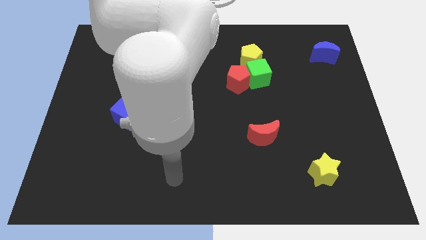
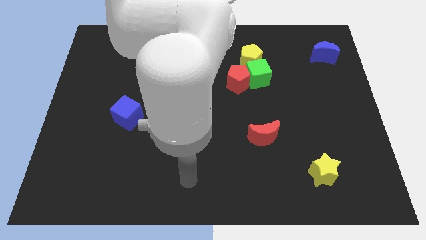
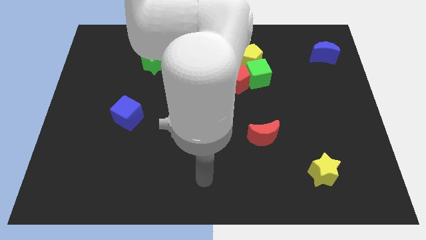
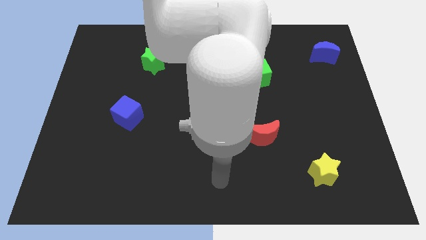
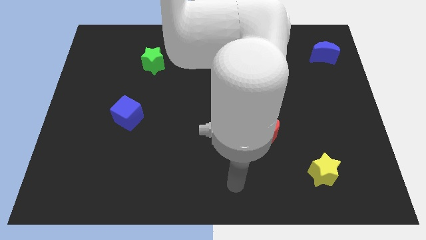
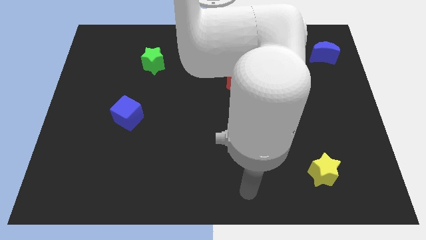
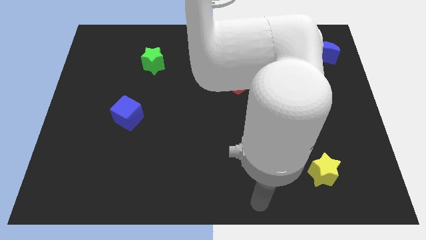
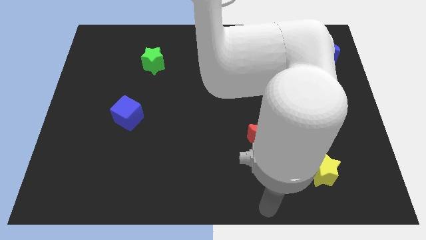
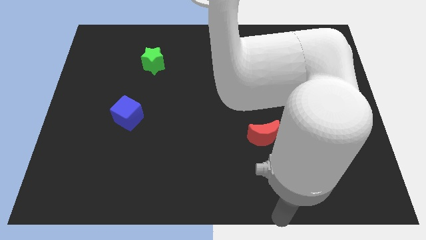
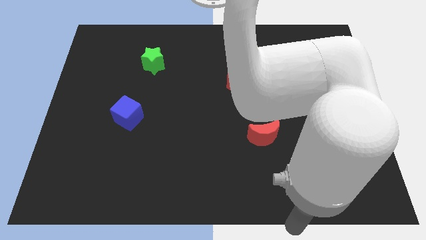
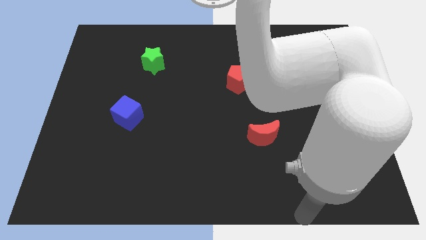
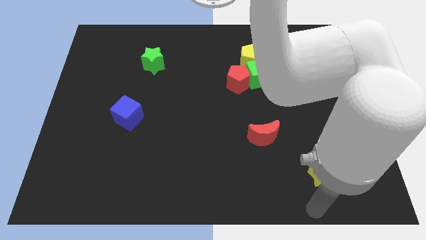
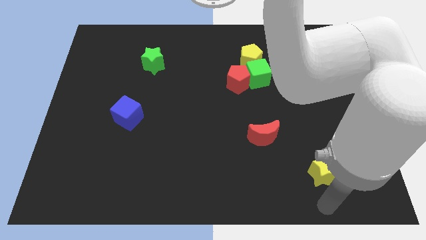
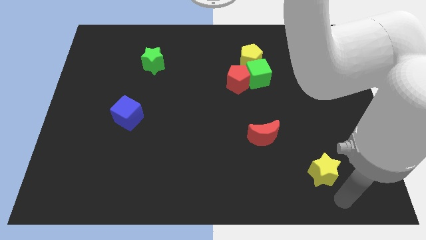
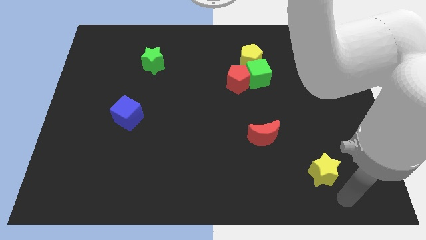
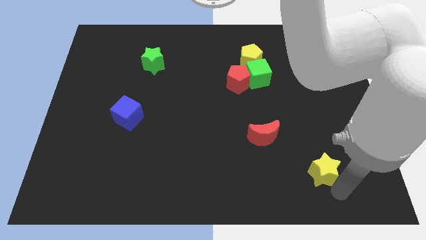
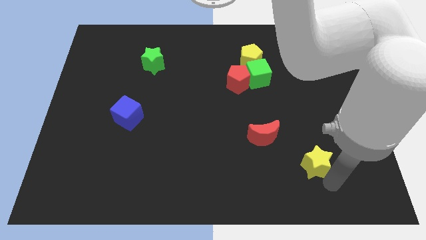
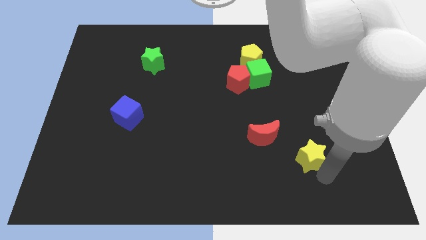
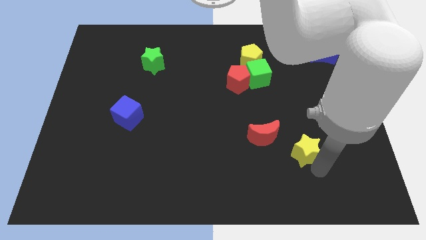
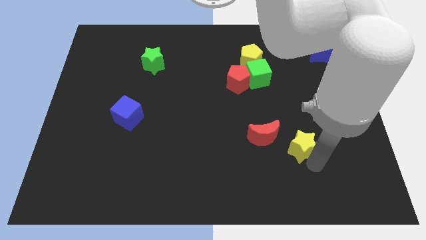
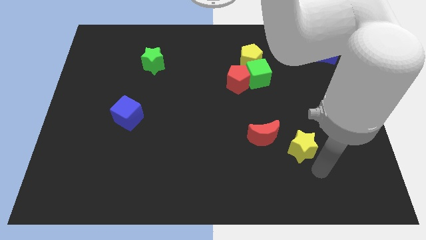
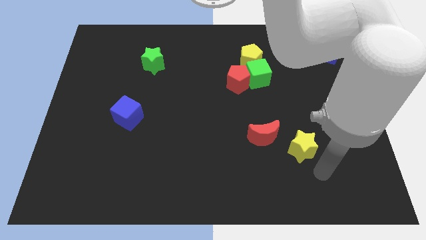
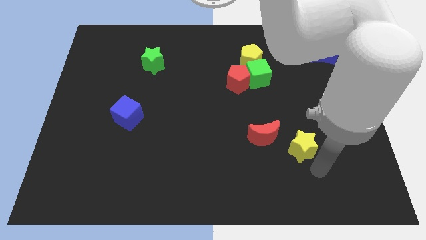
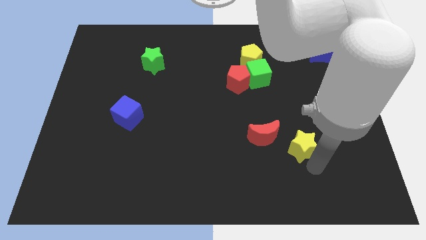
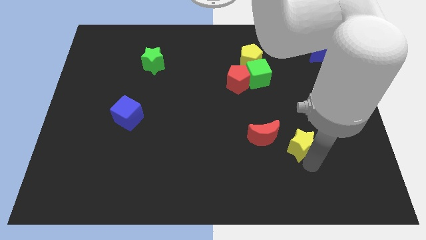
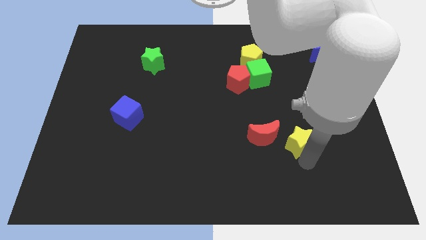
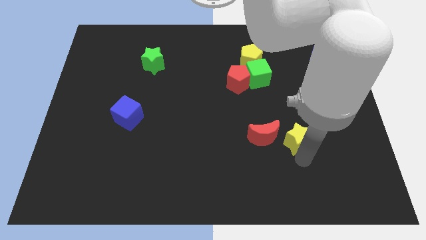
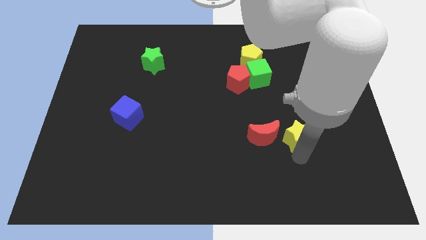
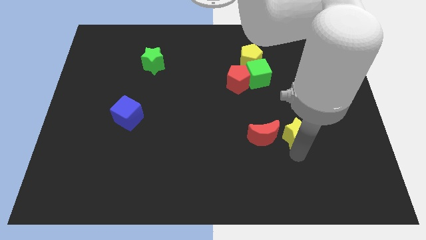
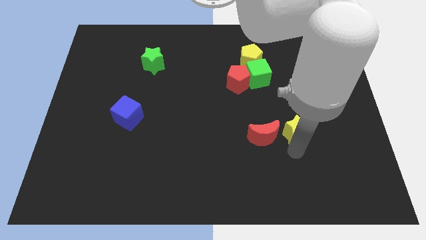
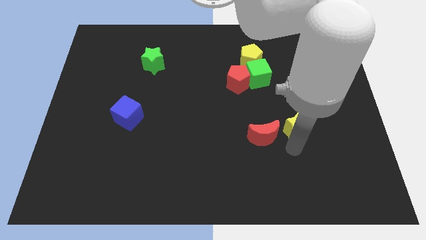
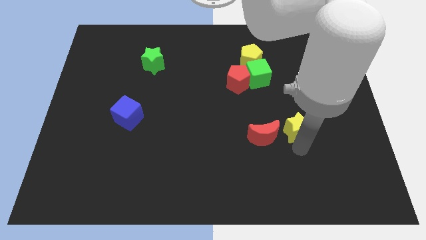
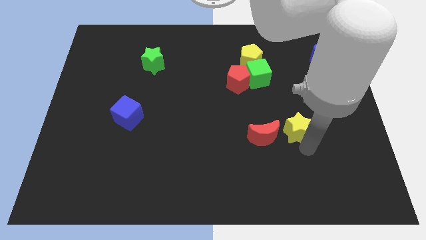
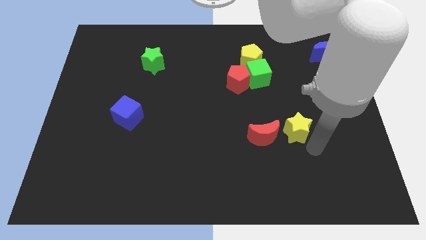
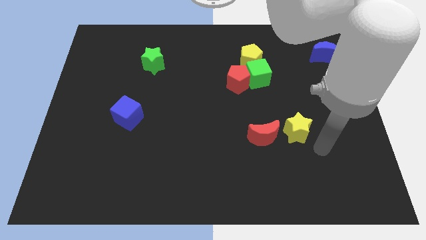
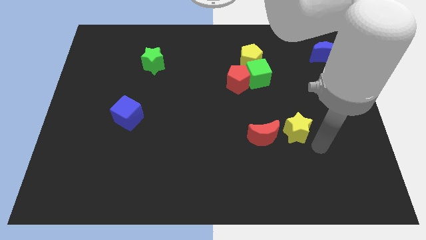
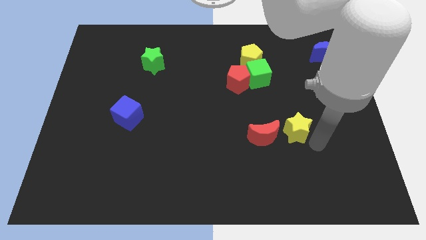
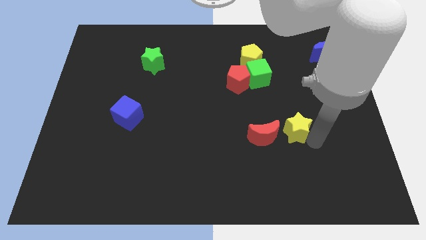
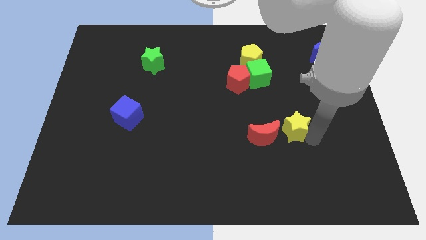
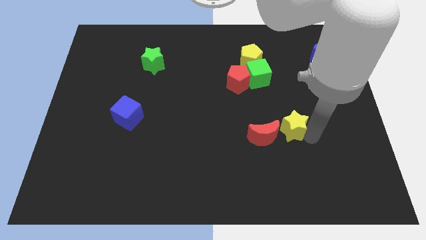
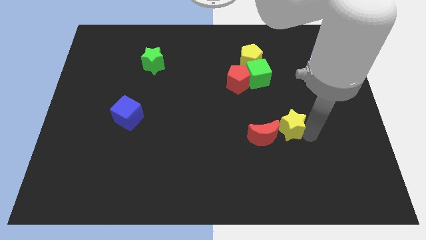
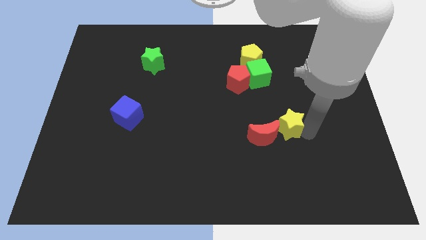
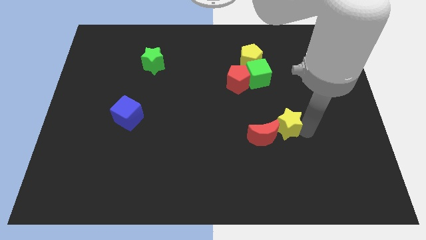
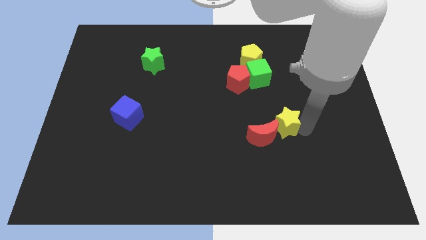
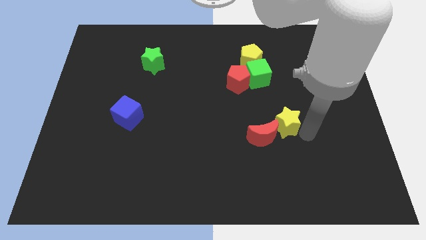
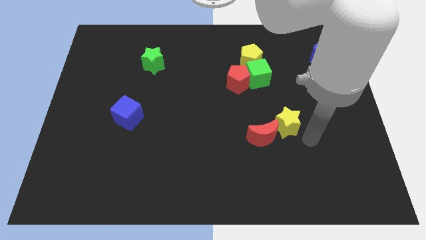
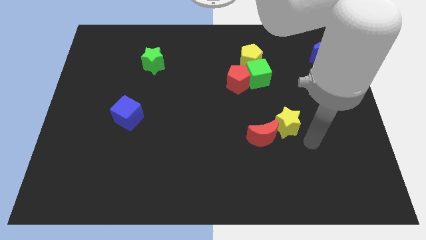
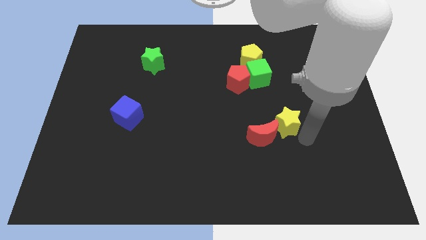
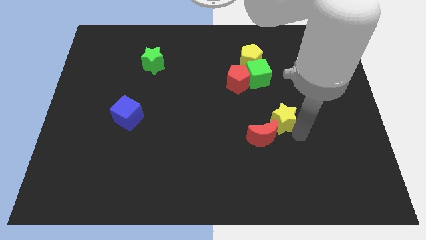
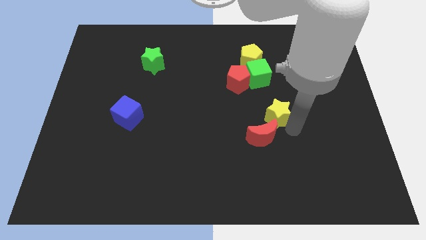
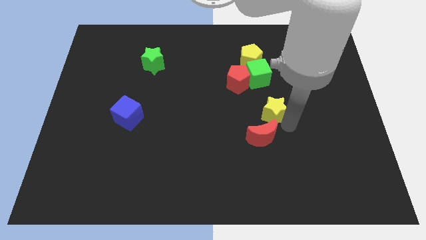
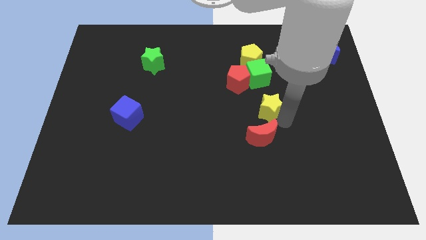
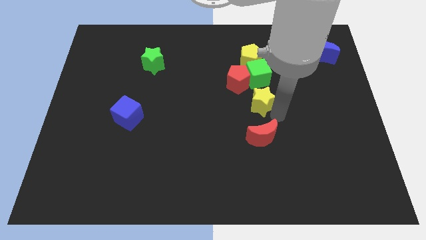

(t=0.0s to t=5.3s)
push the yellow star diagonally upwards and left

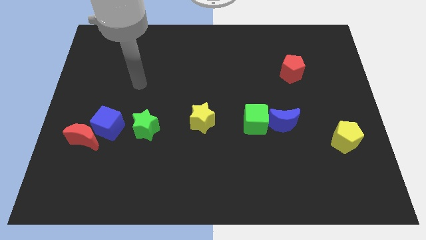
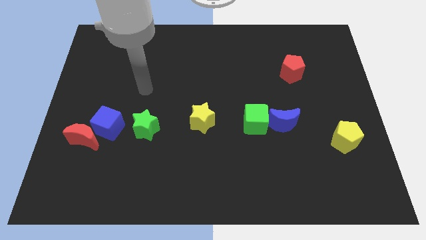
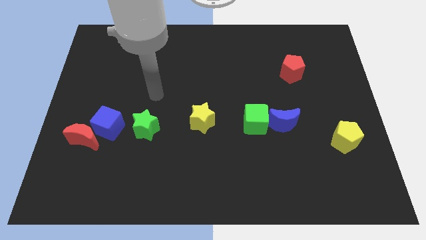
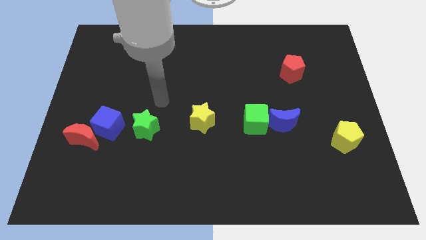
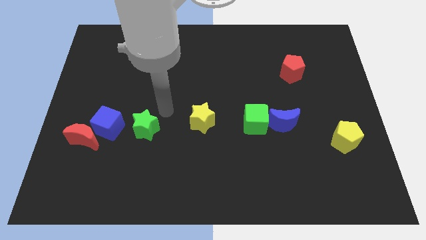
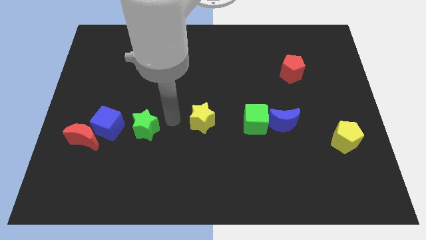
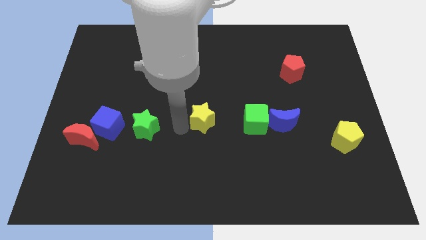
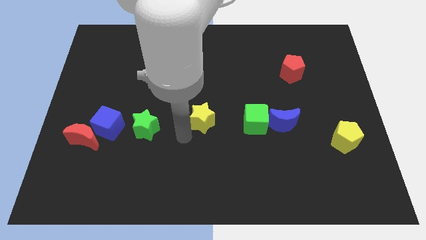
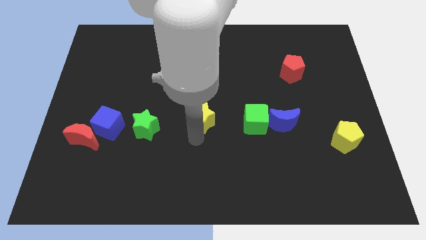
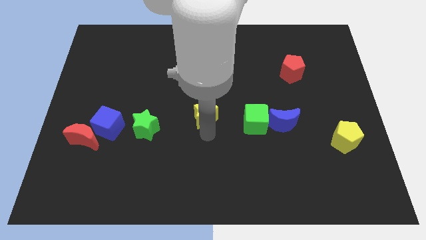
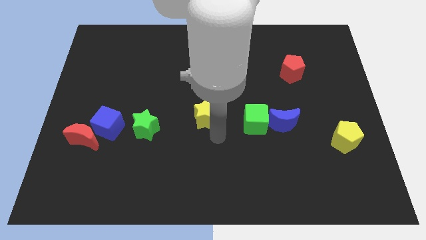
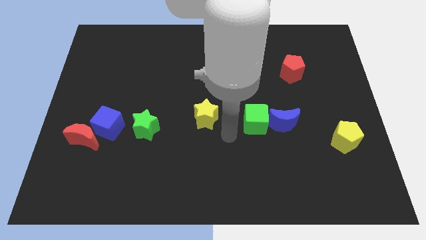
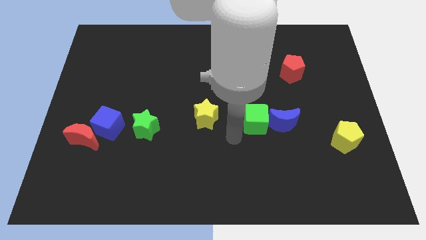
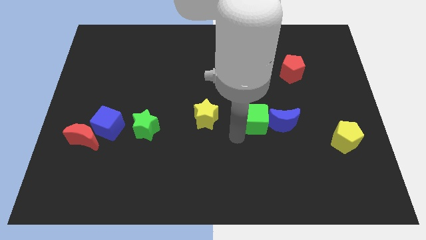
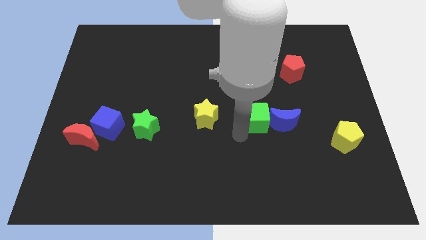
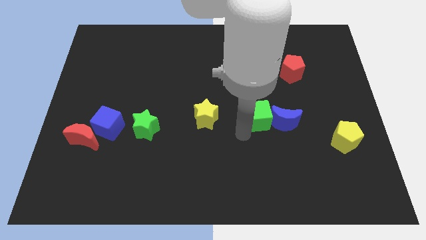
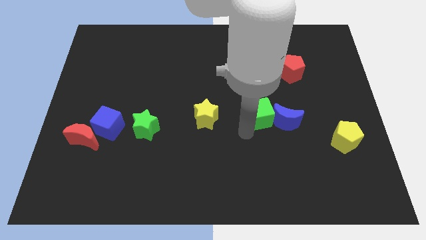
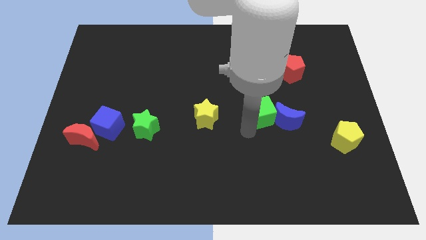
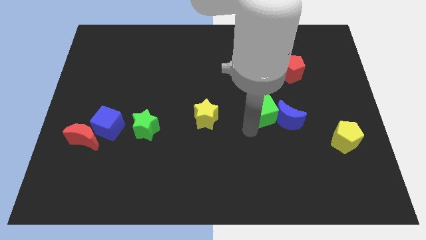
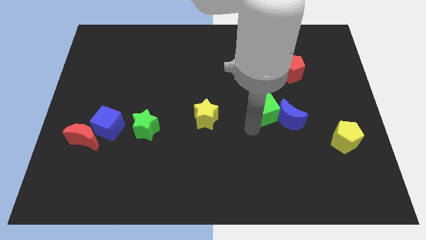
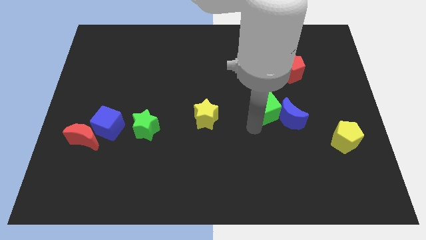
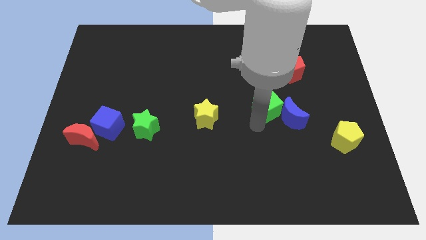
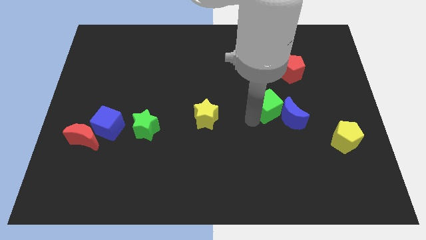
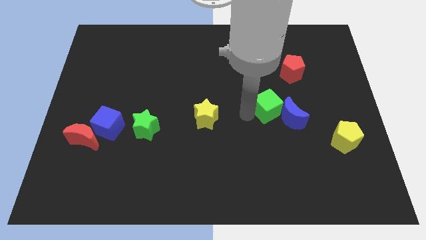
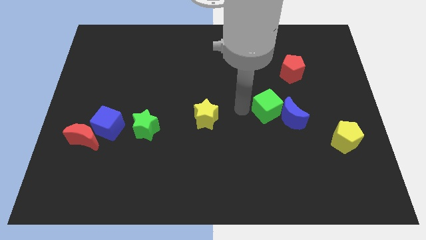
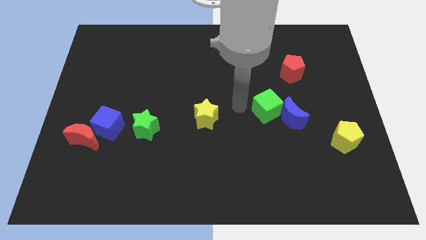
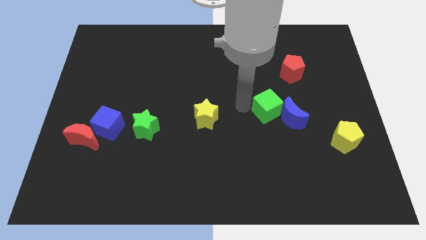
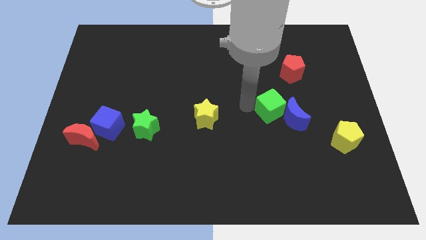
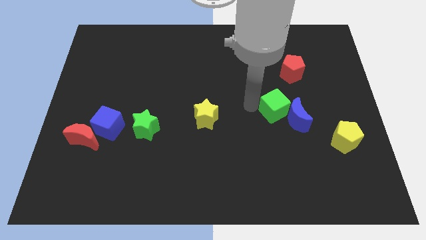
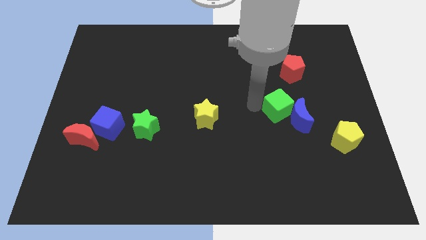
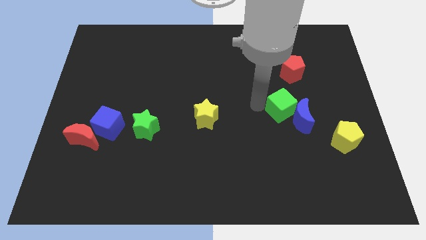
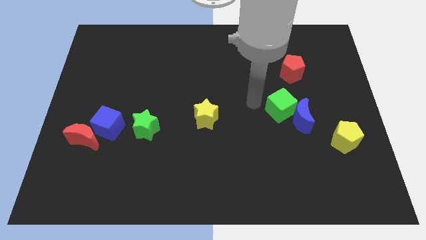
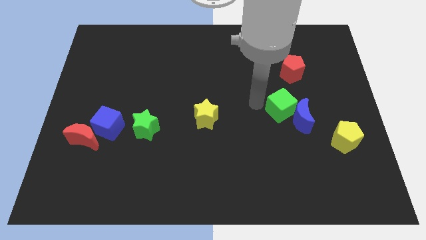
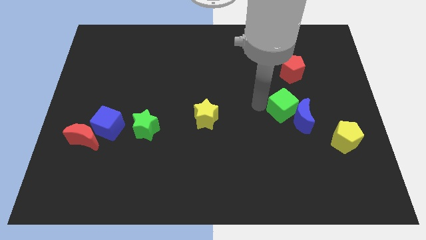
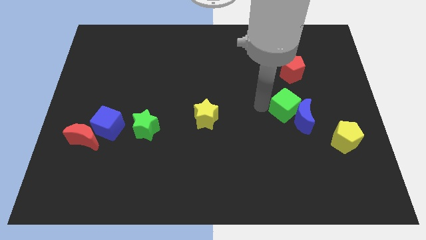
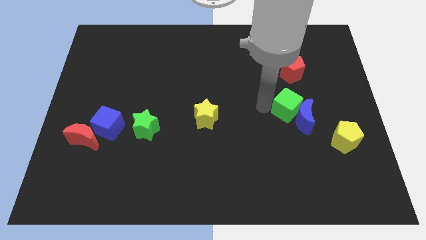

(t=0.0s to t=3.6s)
slightly move the green cube to the right
